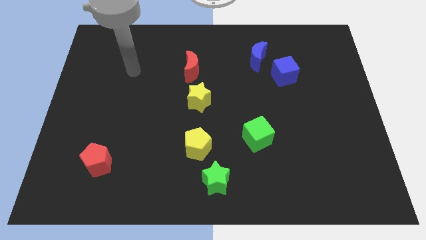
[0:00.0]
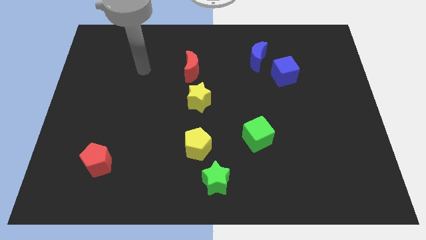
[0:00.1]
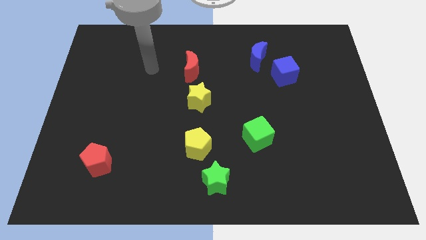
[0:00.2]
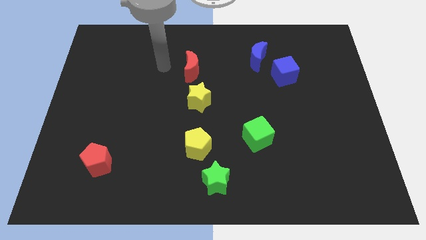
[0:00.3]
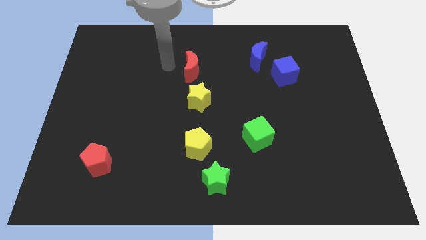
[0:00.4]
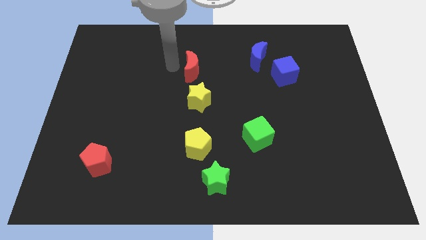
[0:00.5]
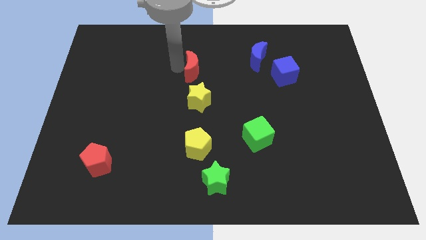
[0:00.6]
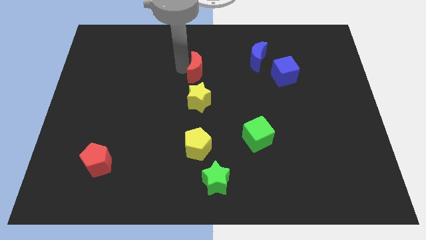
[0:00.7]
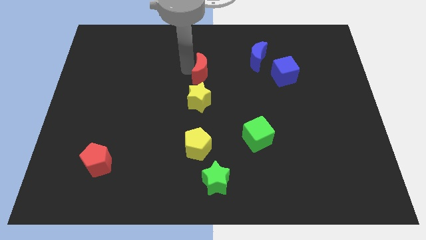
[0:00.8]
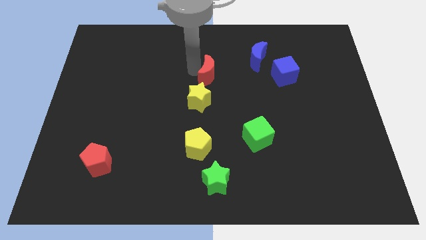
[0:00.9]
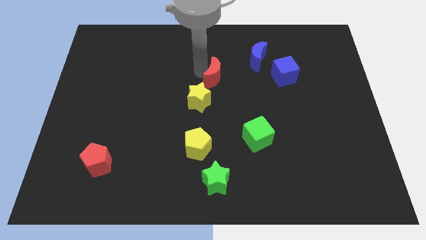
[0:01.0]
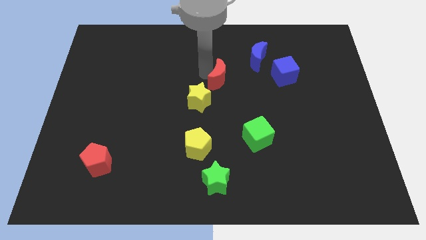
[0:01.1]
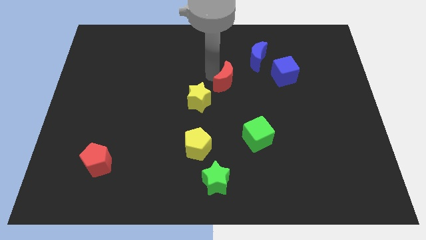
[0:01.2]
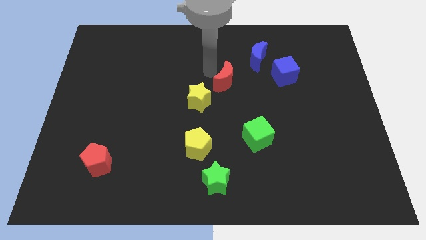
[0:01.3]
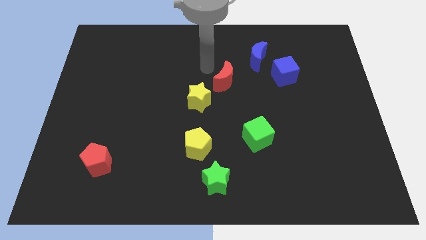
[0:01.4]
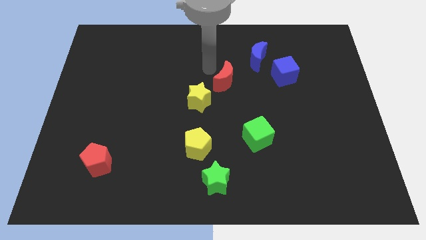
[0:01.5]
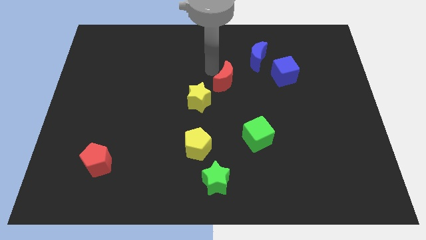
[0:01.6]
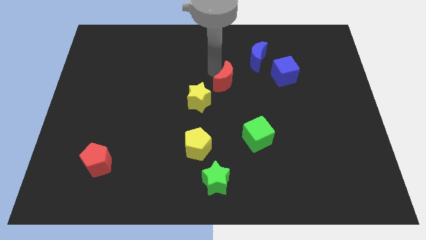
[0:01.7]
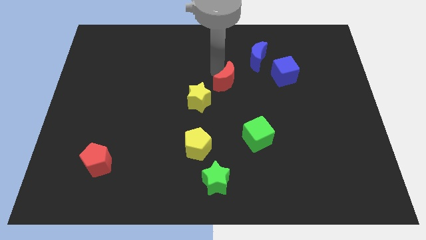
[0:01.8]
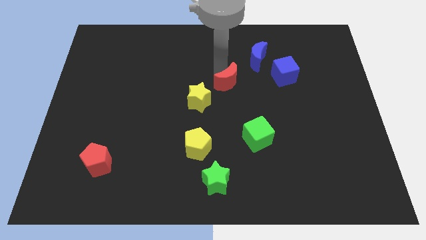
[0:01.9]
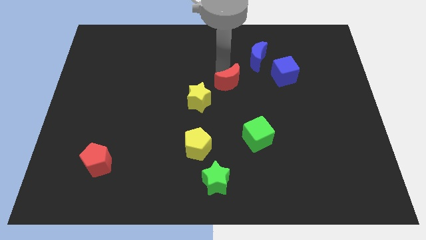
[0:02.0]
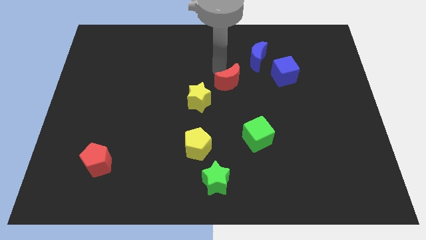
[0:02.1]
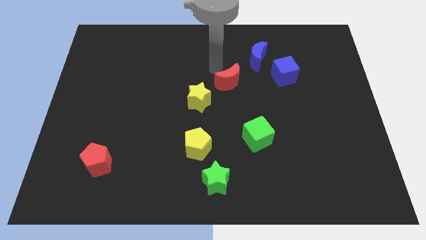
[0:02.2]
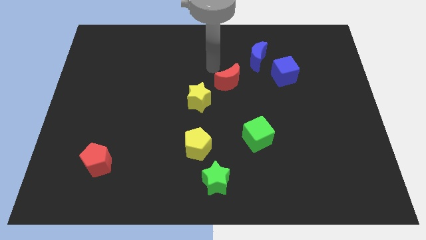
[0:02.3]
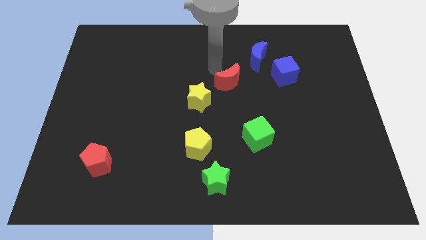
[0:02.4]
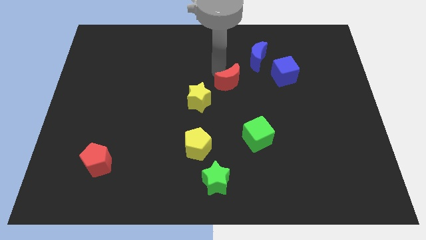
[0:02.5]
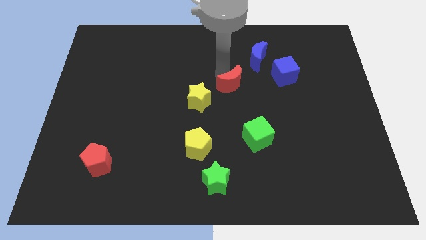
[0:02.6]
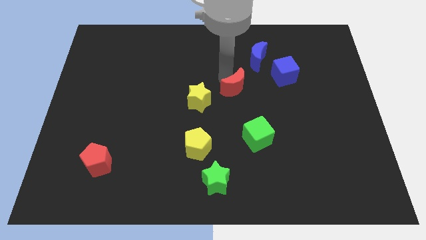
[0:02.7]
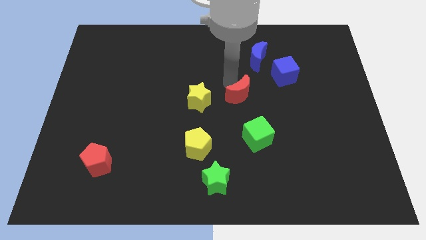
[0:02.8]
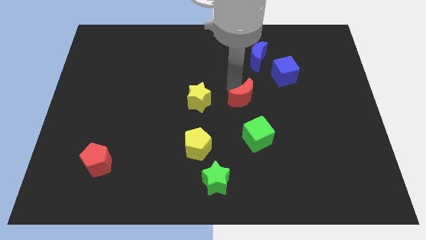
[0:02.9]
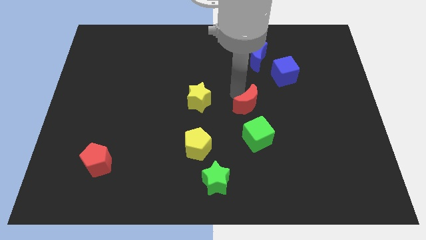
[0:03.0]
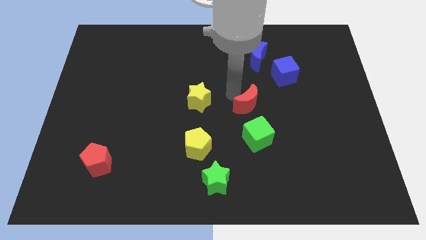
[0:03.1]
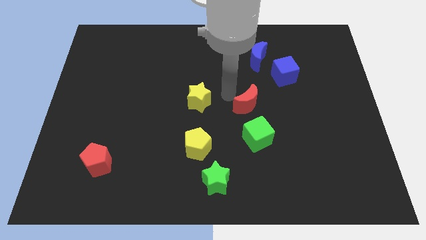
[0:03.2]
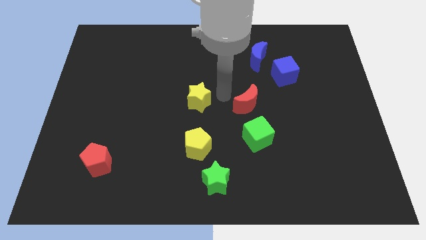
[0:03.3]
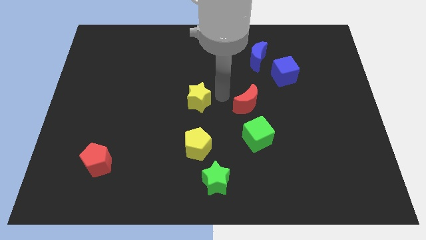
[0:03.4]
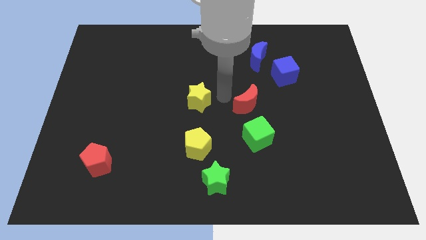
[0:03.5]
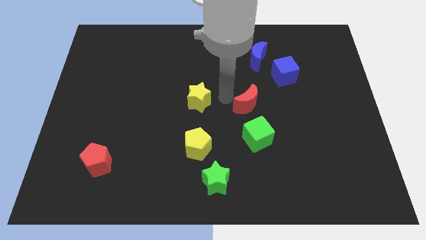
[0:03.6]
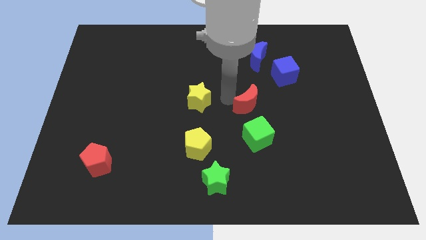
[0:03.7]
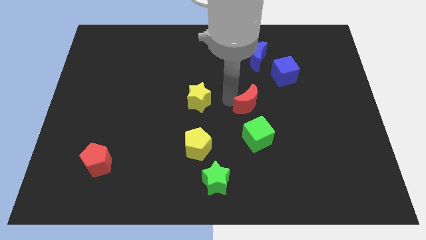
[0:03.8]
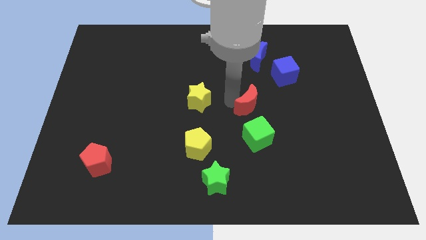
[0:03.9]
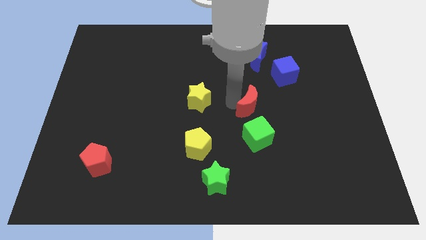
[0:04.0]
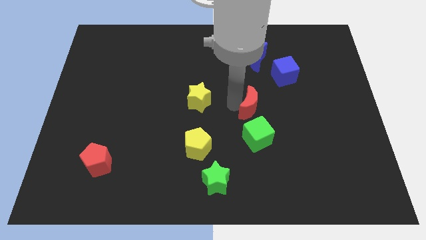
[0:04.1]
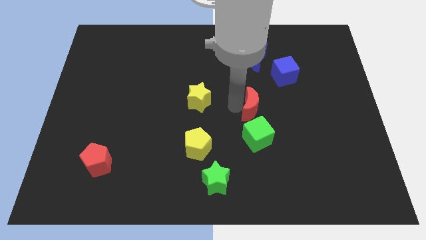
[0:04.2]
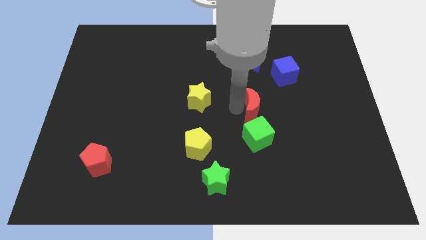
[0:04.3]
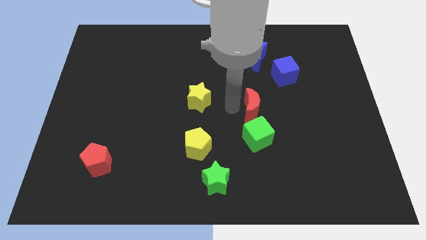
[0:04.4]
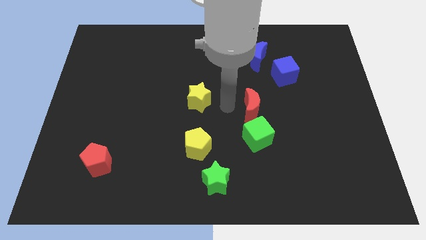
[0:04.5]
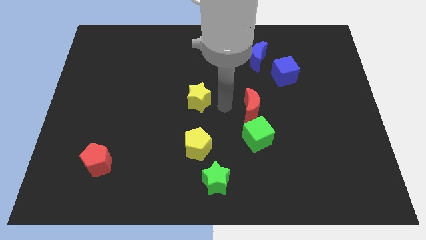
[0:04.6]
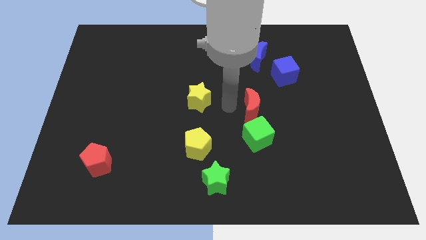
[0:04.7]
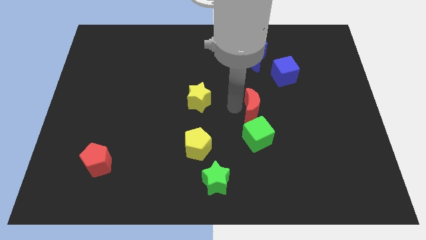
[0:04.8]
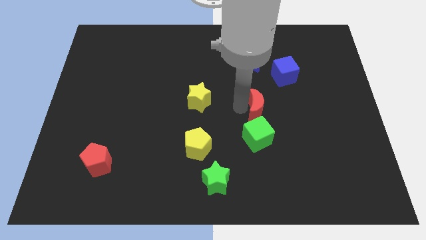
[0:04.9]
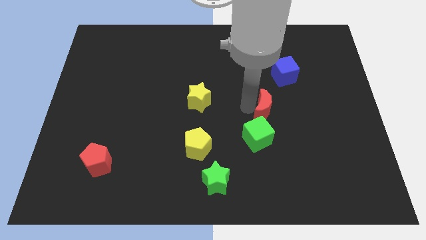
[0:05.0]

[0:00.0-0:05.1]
move the red moon to the top right of the green cube

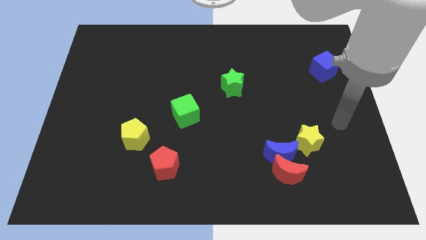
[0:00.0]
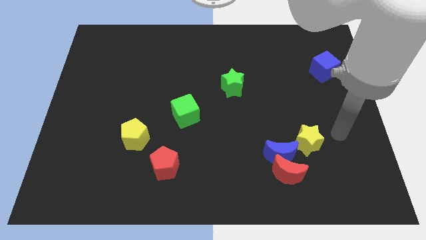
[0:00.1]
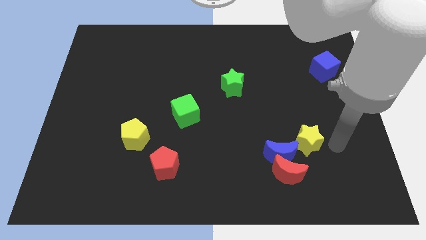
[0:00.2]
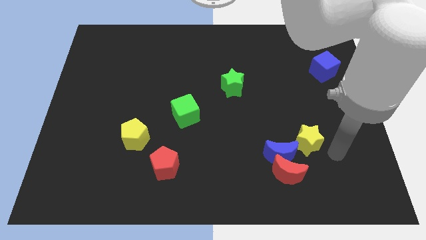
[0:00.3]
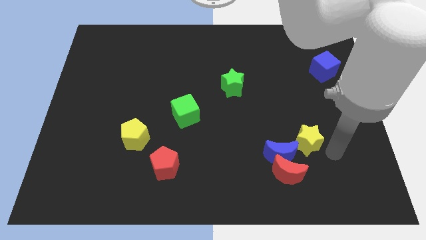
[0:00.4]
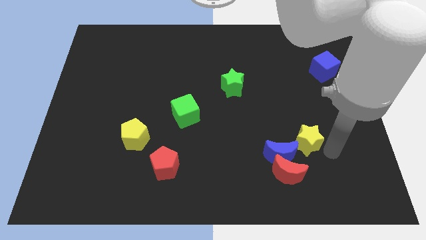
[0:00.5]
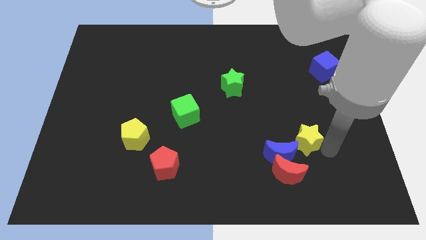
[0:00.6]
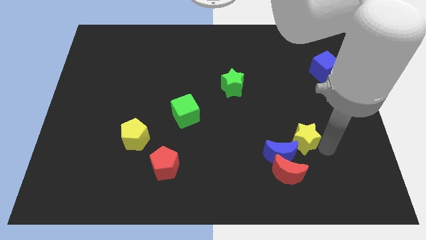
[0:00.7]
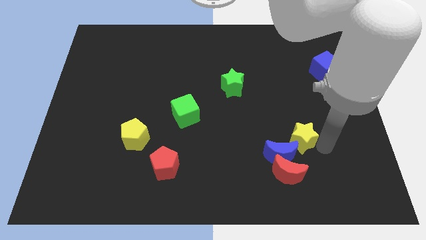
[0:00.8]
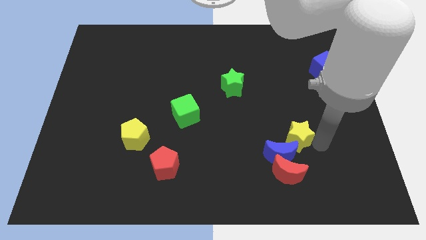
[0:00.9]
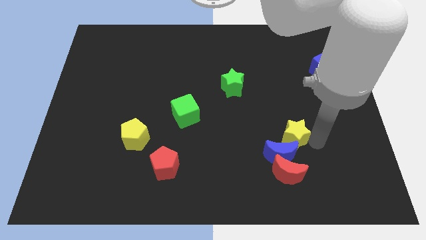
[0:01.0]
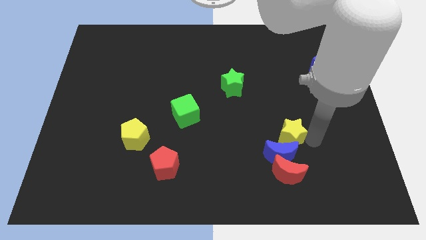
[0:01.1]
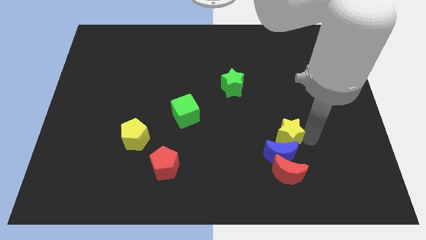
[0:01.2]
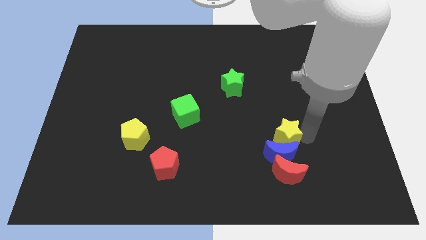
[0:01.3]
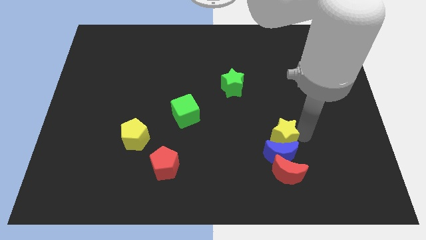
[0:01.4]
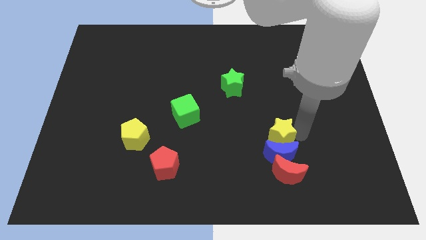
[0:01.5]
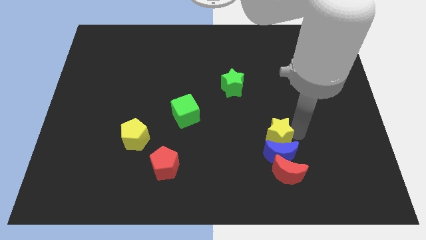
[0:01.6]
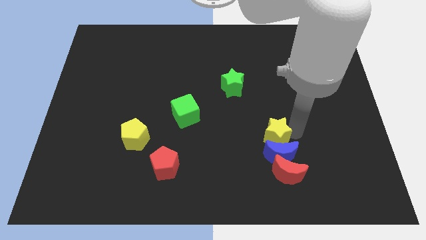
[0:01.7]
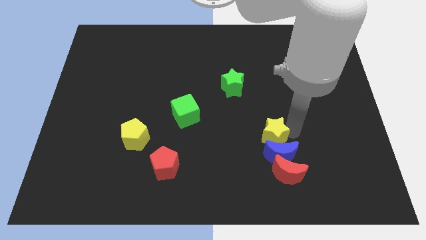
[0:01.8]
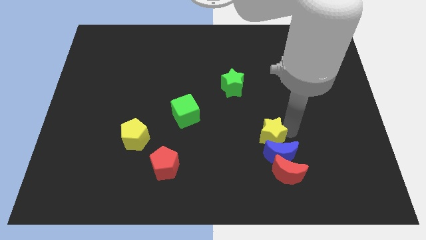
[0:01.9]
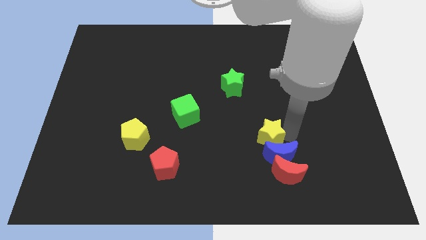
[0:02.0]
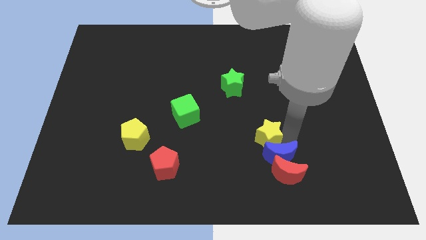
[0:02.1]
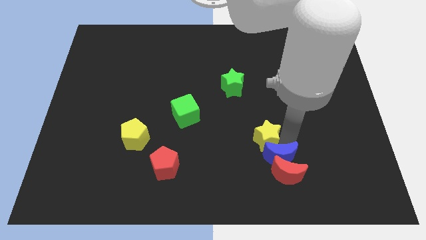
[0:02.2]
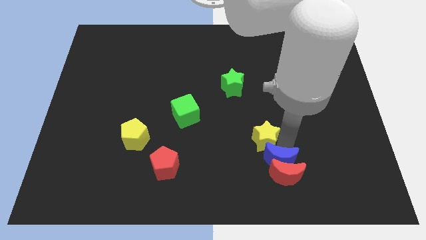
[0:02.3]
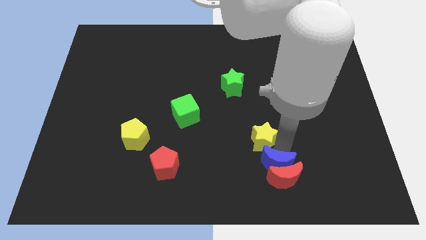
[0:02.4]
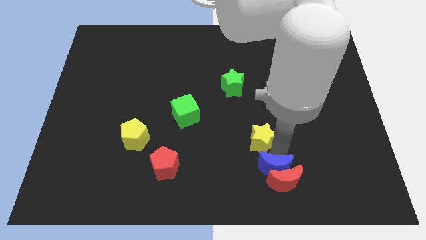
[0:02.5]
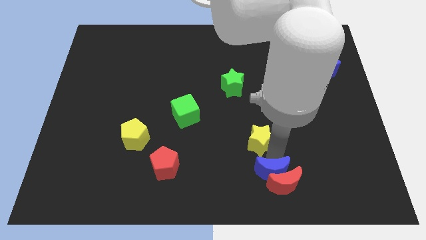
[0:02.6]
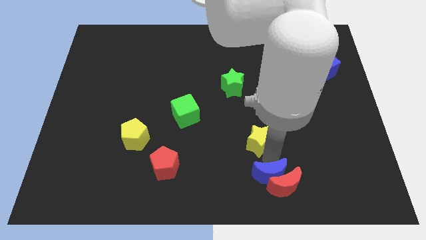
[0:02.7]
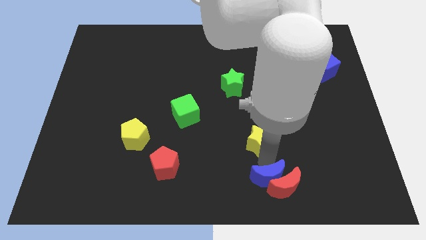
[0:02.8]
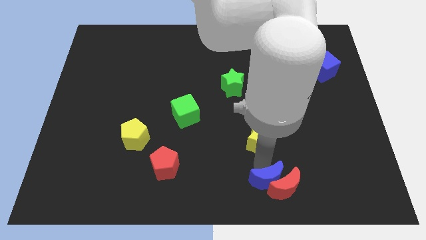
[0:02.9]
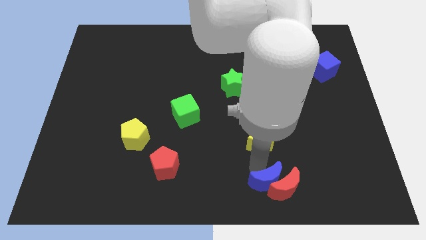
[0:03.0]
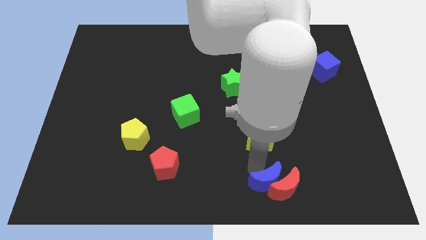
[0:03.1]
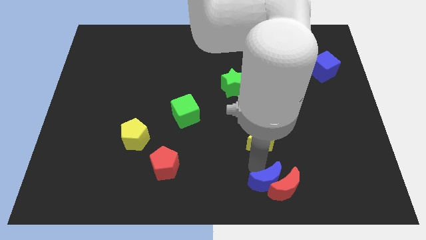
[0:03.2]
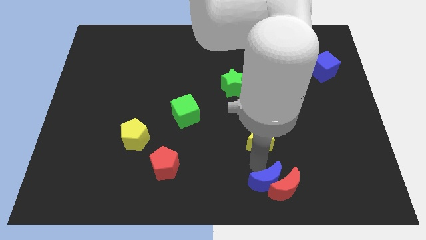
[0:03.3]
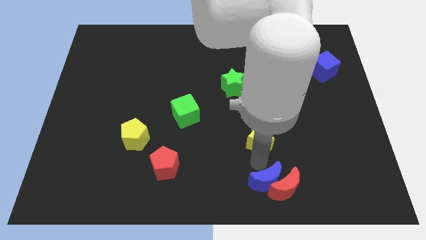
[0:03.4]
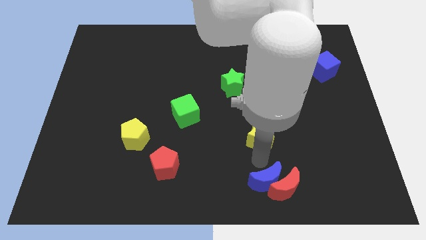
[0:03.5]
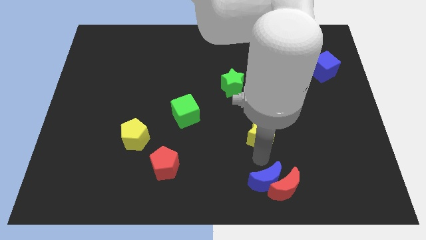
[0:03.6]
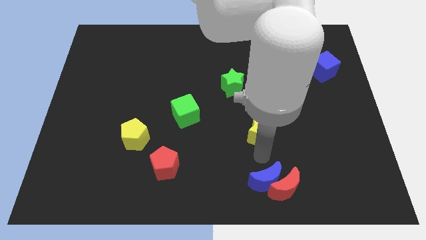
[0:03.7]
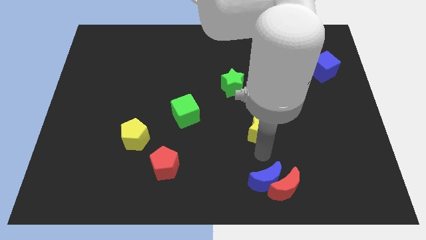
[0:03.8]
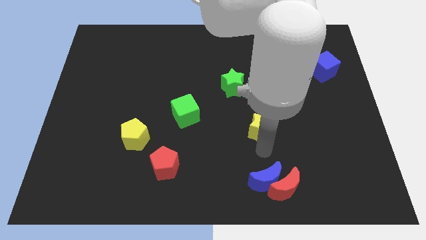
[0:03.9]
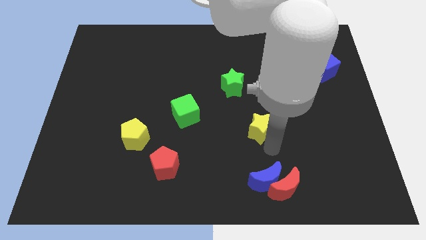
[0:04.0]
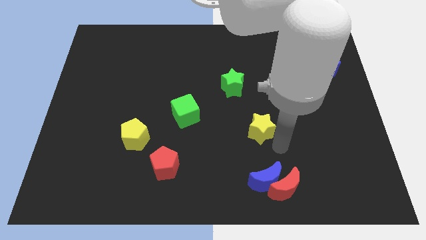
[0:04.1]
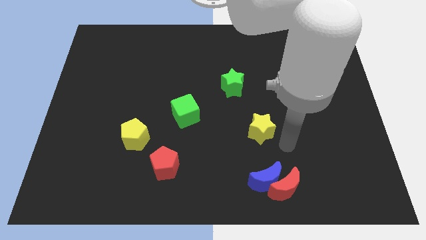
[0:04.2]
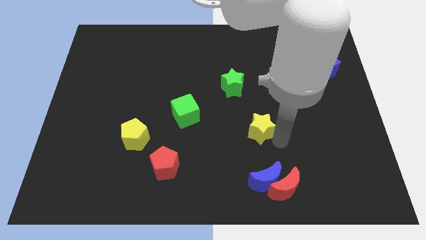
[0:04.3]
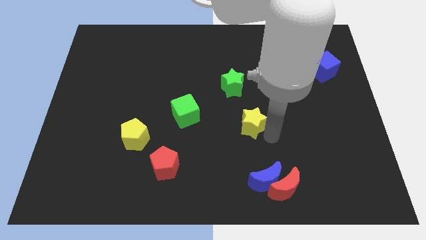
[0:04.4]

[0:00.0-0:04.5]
move the yellow star right of the green cube
